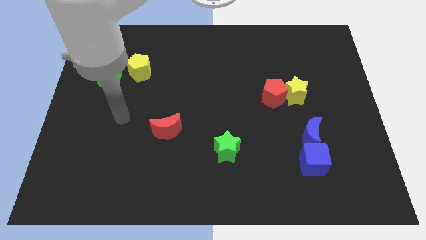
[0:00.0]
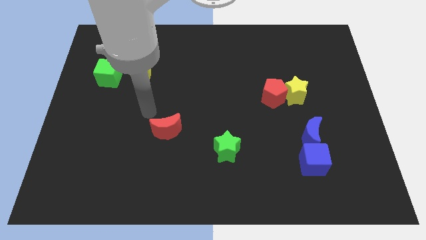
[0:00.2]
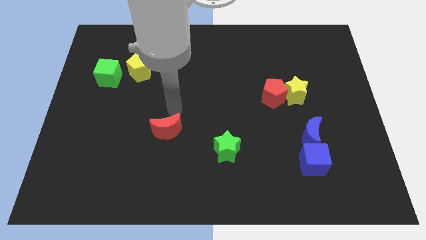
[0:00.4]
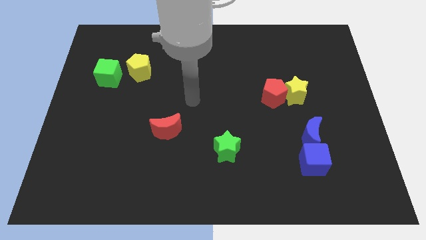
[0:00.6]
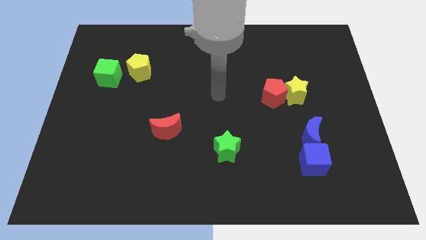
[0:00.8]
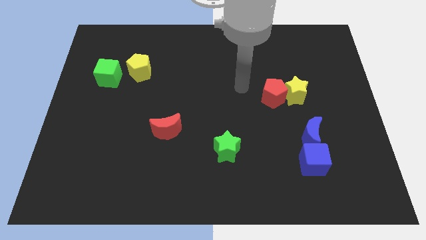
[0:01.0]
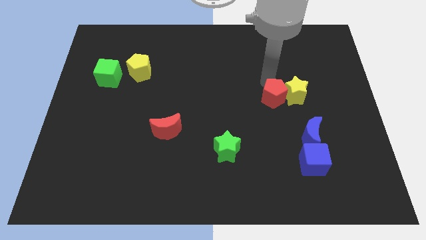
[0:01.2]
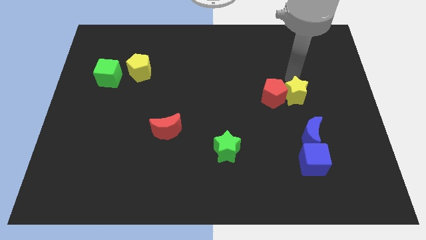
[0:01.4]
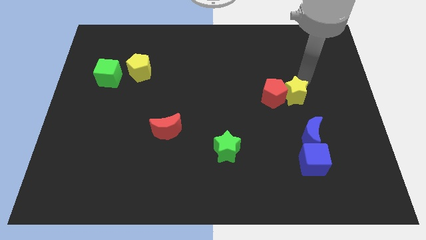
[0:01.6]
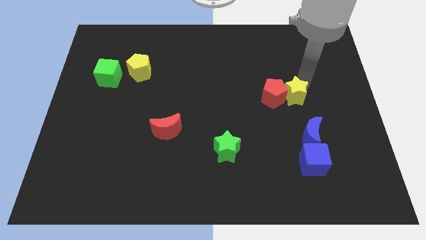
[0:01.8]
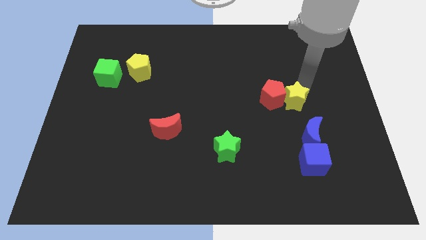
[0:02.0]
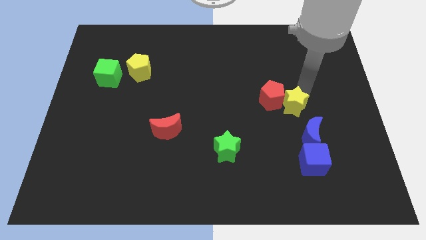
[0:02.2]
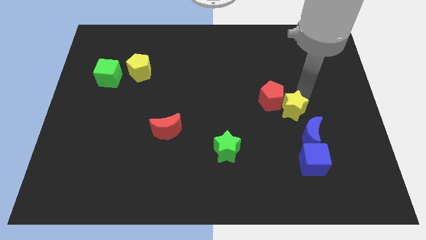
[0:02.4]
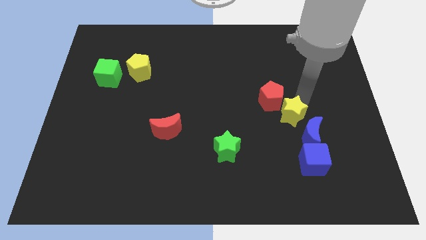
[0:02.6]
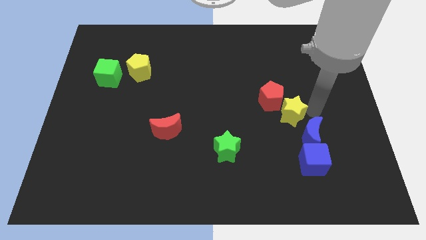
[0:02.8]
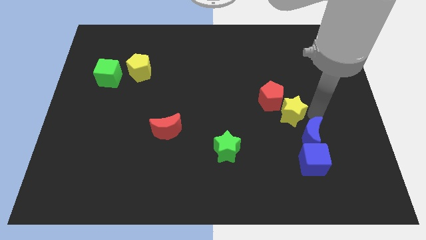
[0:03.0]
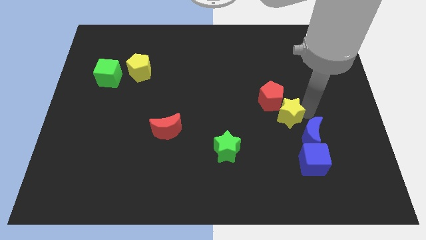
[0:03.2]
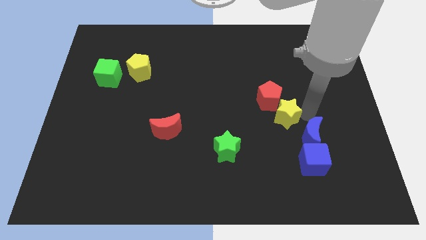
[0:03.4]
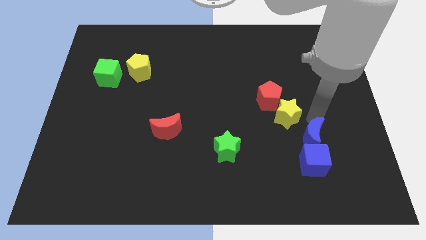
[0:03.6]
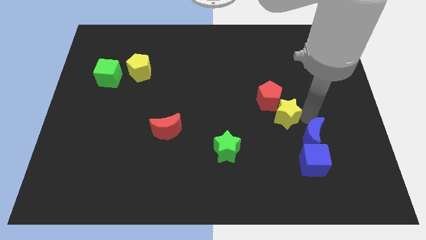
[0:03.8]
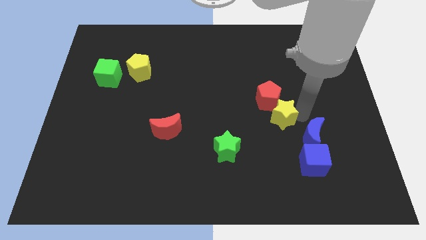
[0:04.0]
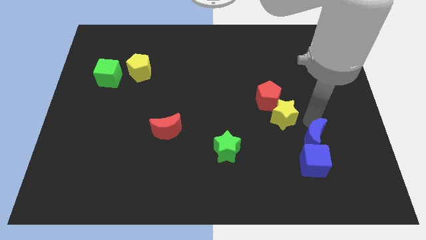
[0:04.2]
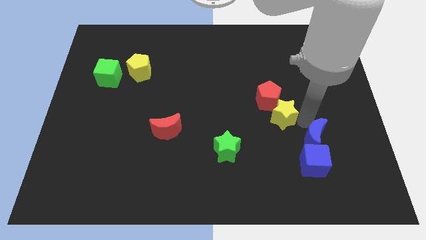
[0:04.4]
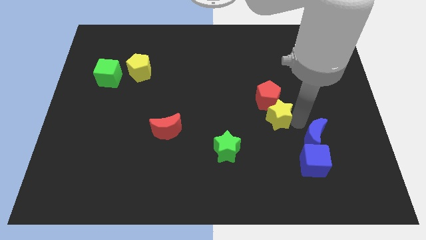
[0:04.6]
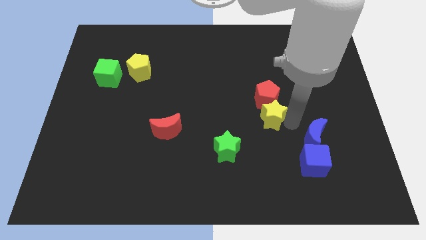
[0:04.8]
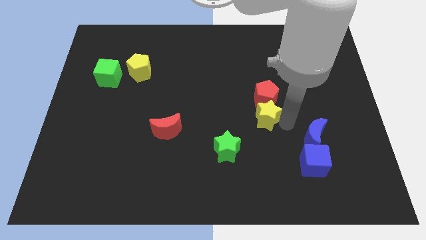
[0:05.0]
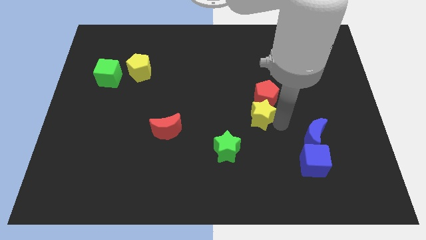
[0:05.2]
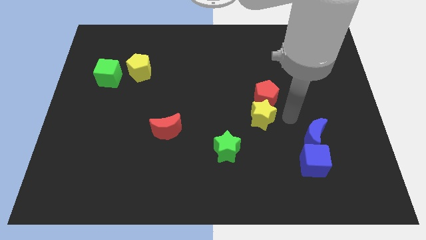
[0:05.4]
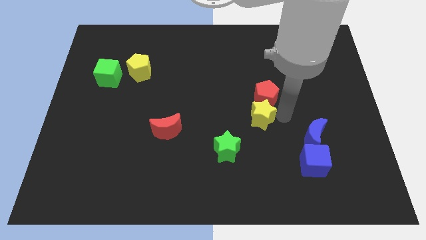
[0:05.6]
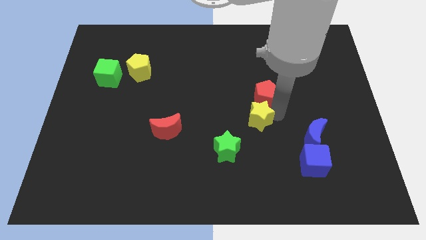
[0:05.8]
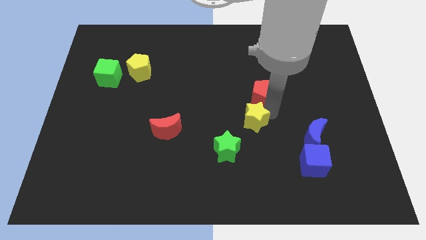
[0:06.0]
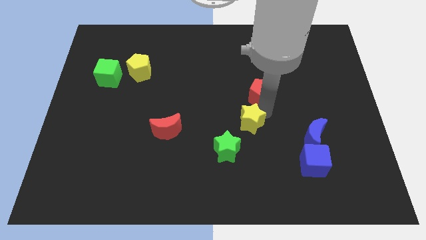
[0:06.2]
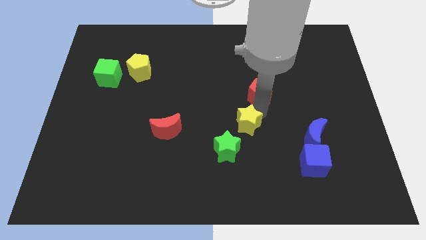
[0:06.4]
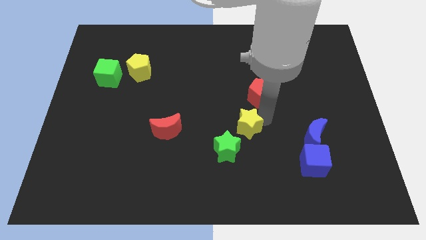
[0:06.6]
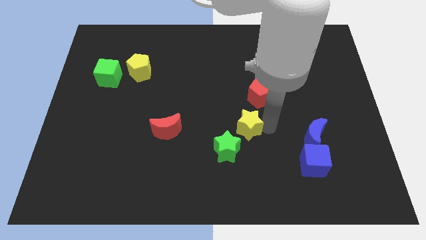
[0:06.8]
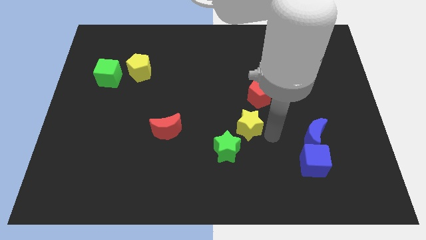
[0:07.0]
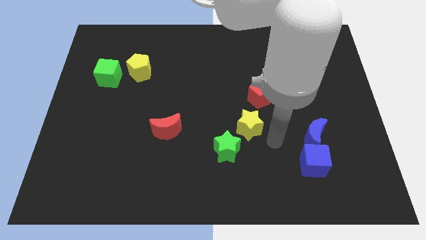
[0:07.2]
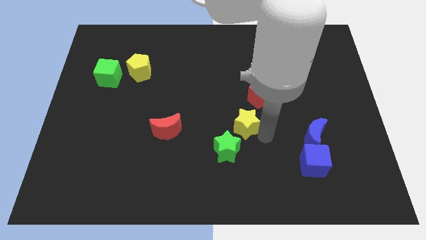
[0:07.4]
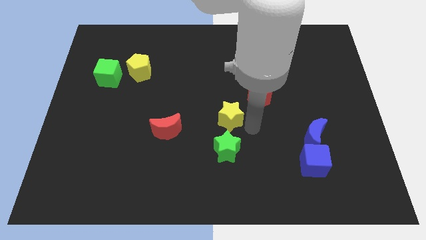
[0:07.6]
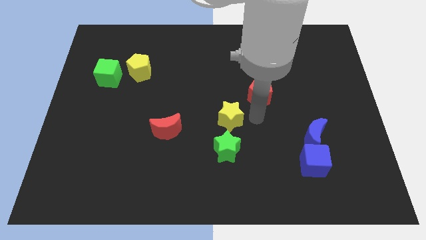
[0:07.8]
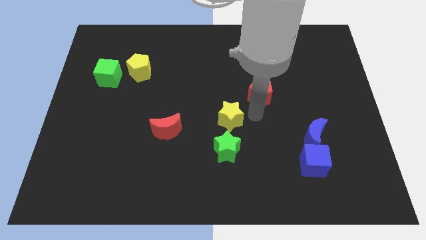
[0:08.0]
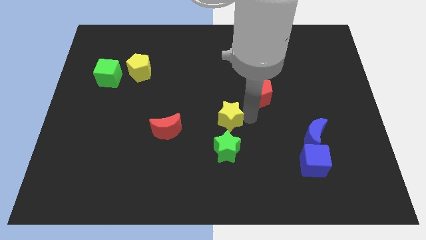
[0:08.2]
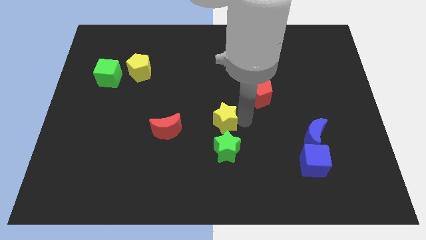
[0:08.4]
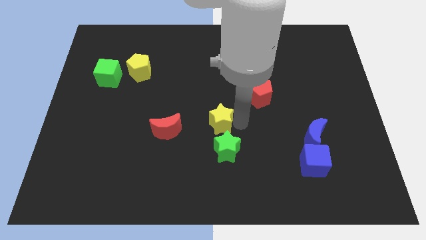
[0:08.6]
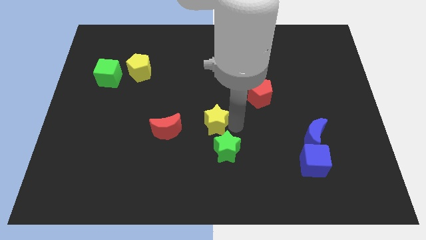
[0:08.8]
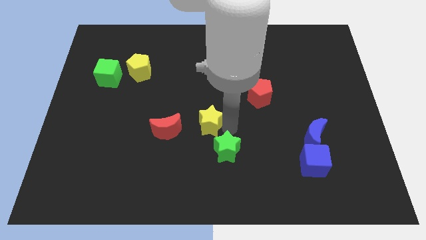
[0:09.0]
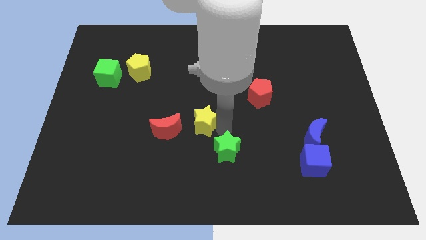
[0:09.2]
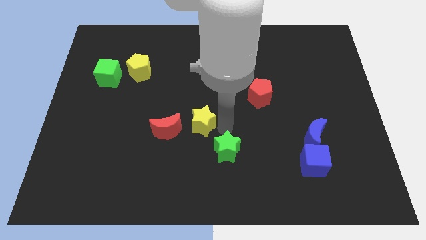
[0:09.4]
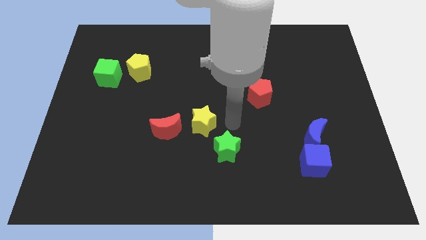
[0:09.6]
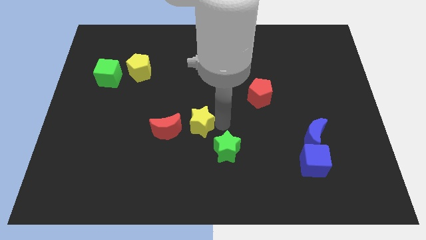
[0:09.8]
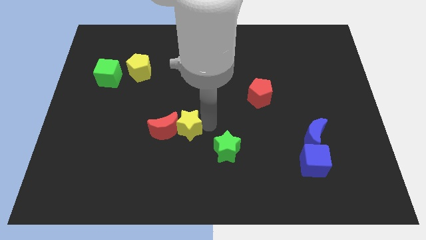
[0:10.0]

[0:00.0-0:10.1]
move the yellow star close to the red moon
